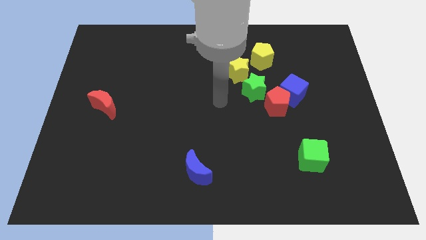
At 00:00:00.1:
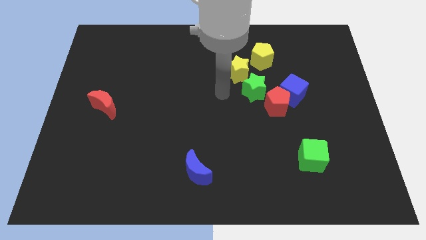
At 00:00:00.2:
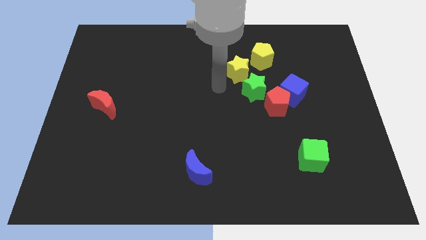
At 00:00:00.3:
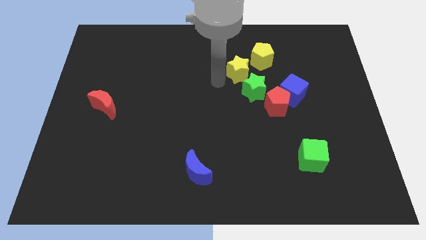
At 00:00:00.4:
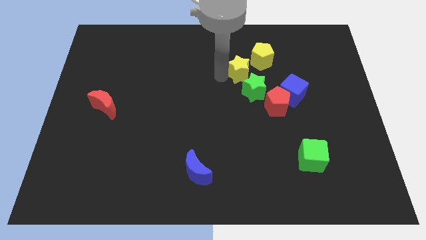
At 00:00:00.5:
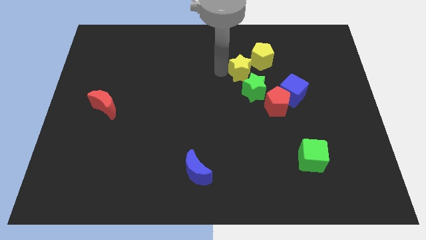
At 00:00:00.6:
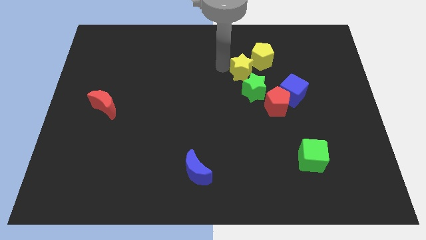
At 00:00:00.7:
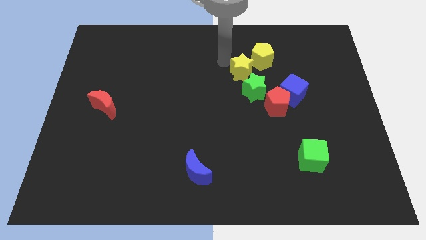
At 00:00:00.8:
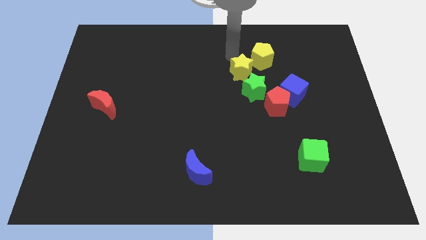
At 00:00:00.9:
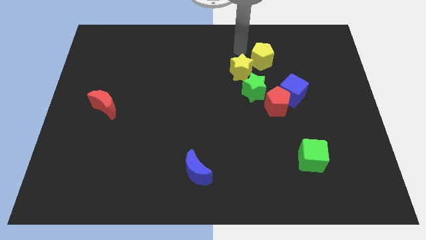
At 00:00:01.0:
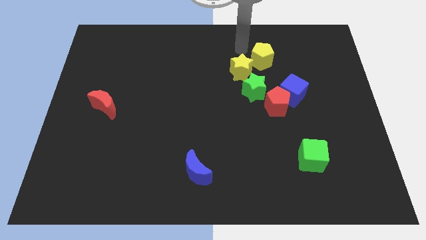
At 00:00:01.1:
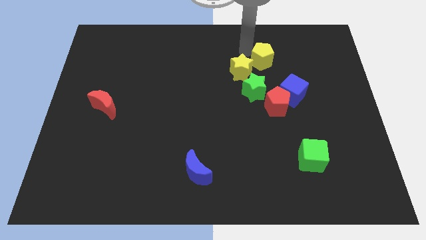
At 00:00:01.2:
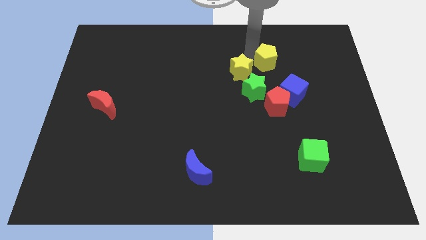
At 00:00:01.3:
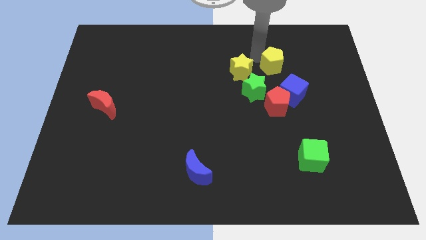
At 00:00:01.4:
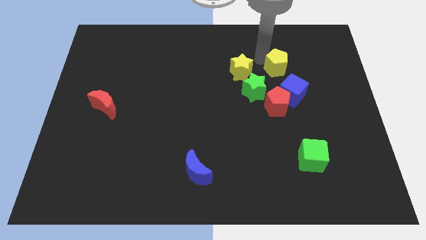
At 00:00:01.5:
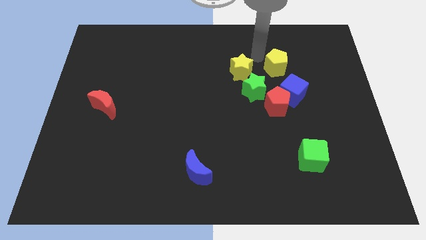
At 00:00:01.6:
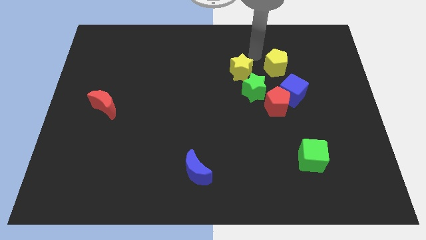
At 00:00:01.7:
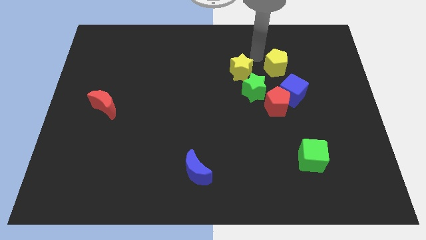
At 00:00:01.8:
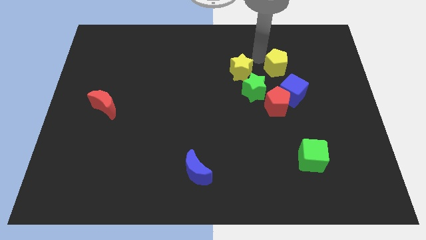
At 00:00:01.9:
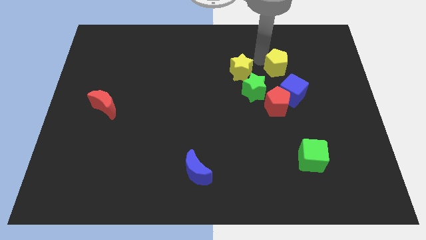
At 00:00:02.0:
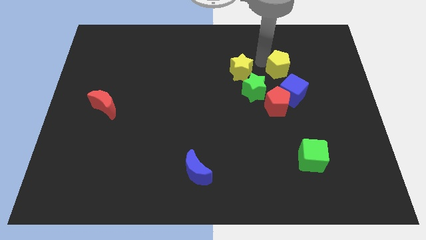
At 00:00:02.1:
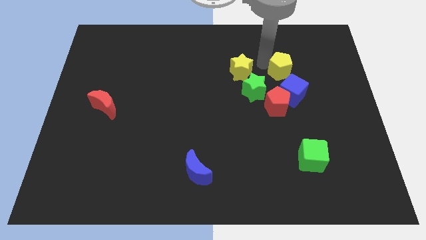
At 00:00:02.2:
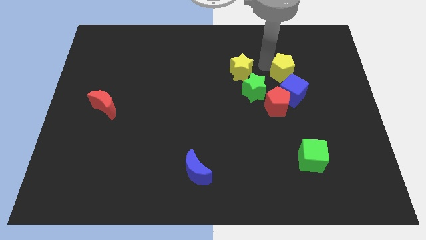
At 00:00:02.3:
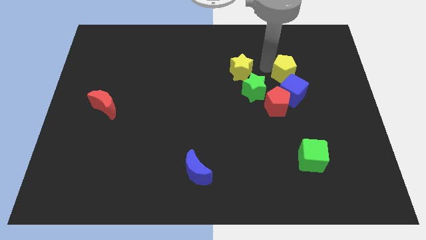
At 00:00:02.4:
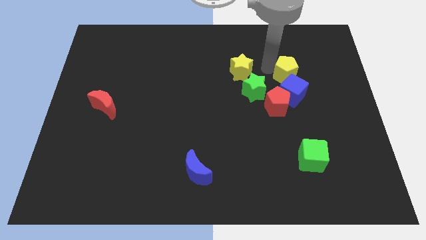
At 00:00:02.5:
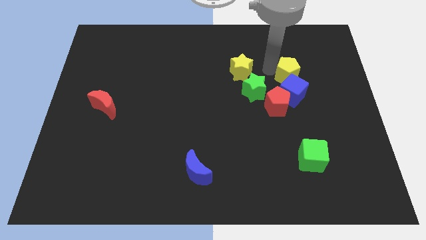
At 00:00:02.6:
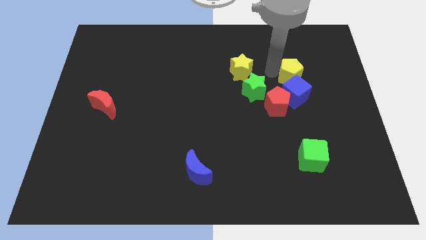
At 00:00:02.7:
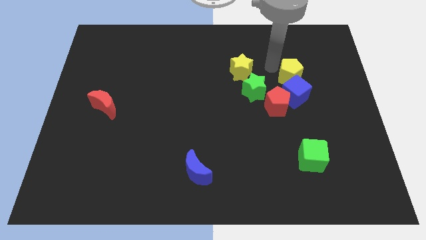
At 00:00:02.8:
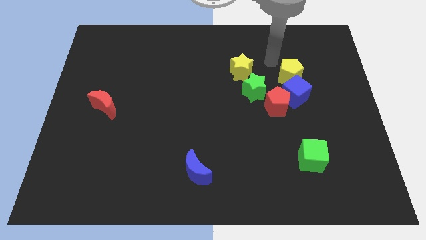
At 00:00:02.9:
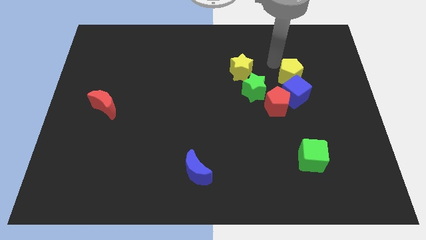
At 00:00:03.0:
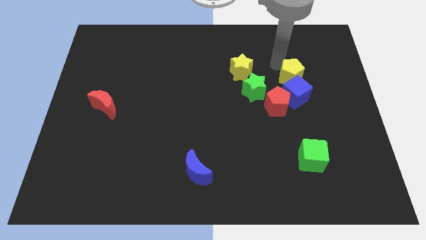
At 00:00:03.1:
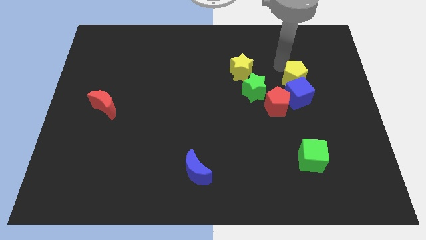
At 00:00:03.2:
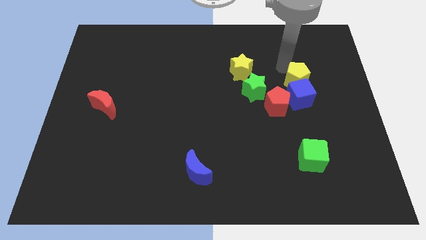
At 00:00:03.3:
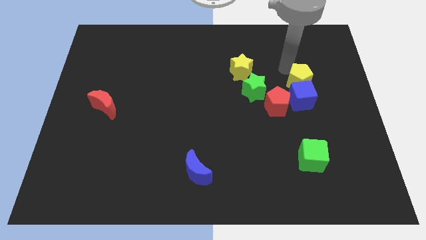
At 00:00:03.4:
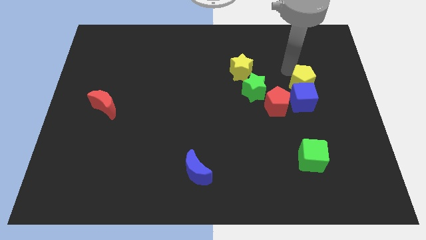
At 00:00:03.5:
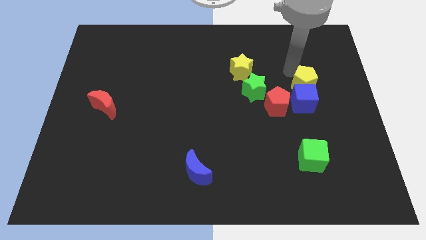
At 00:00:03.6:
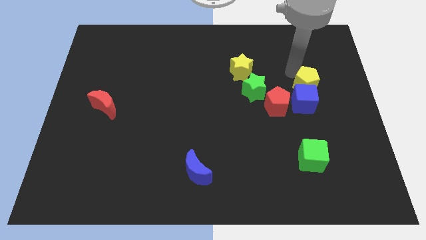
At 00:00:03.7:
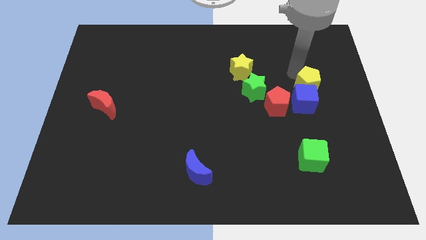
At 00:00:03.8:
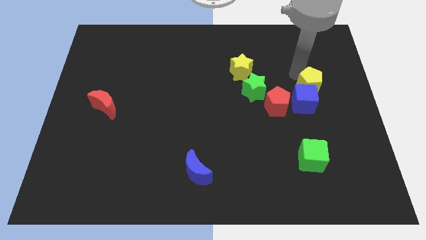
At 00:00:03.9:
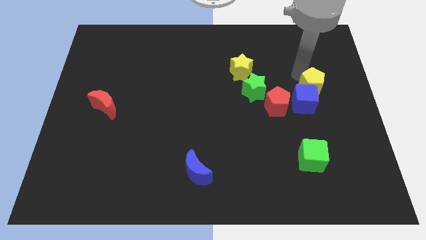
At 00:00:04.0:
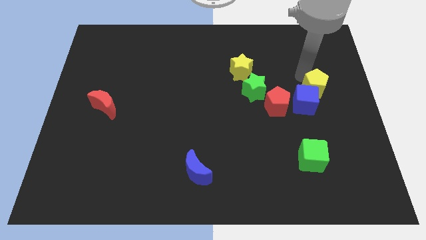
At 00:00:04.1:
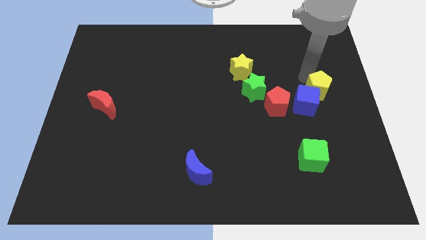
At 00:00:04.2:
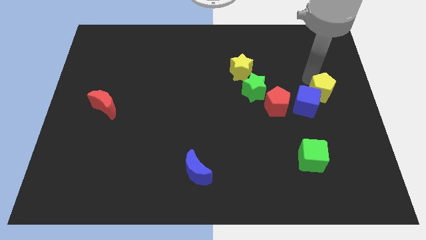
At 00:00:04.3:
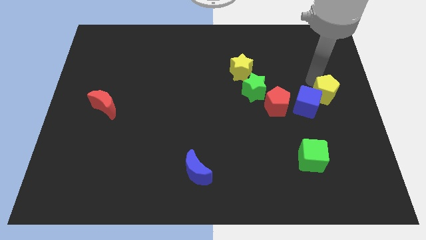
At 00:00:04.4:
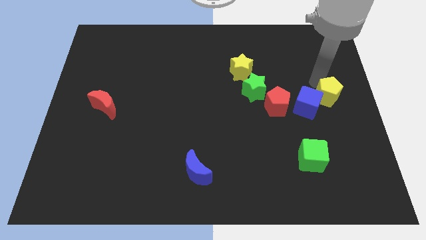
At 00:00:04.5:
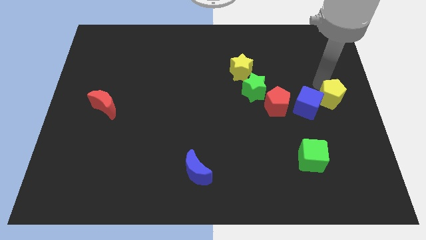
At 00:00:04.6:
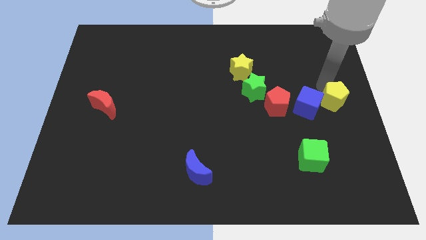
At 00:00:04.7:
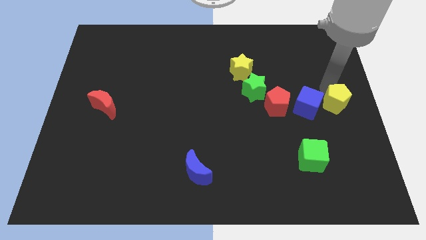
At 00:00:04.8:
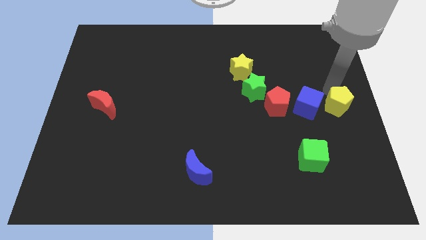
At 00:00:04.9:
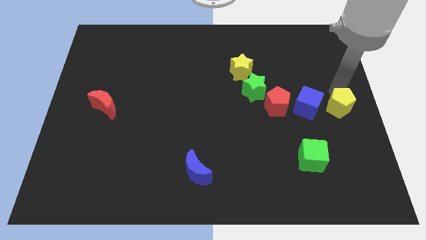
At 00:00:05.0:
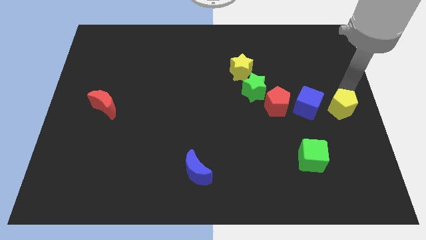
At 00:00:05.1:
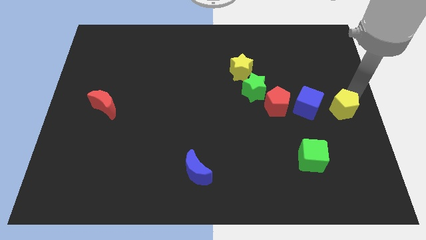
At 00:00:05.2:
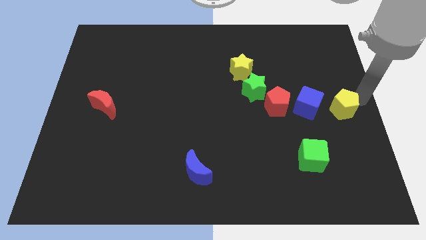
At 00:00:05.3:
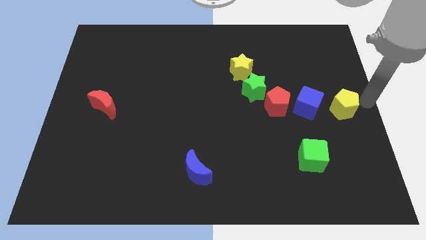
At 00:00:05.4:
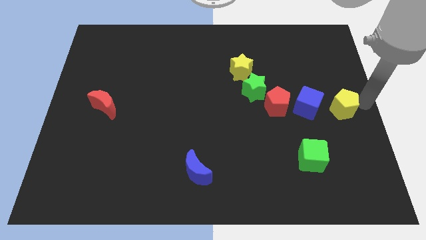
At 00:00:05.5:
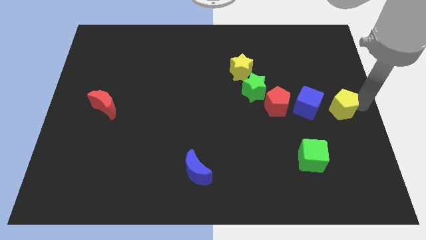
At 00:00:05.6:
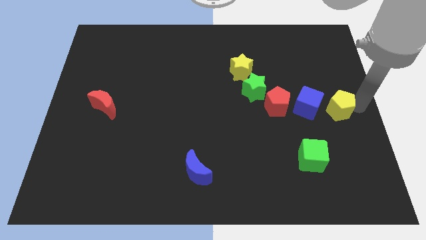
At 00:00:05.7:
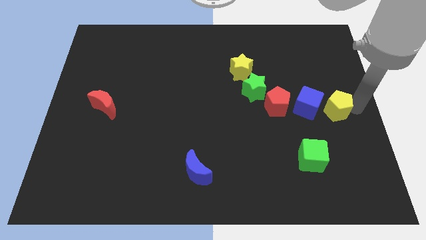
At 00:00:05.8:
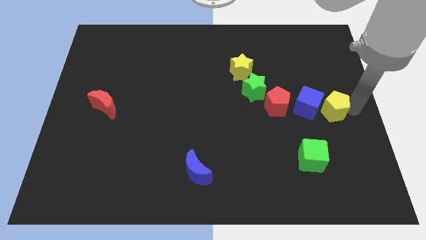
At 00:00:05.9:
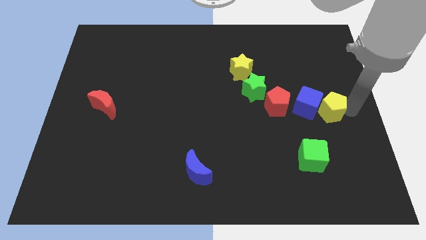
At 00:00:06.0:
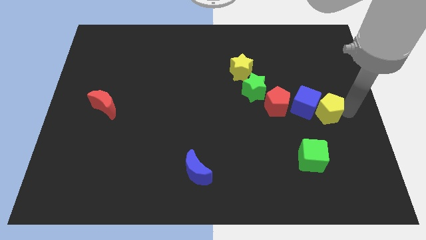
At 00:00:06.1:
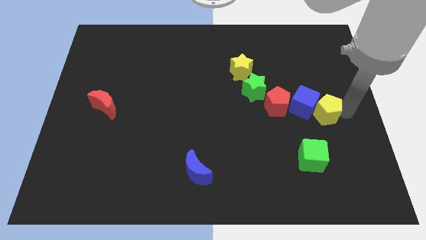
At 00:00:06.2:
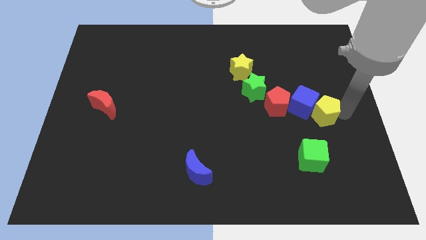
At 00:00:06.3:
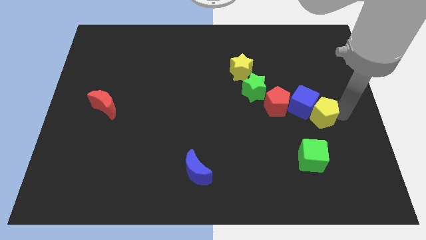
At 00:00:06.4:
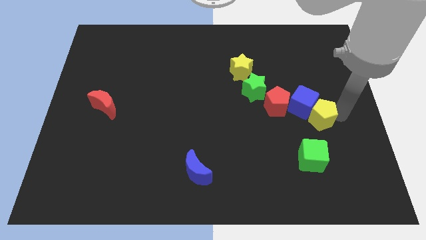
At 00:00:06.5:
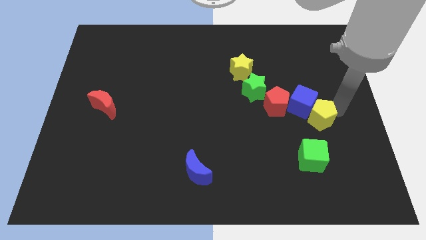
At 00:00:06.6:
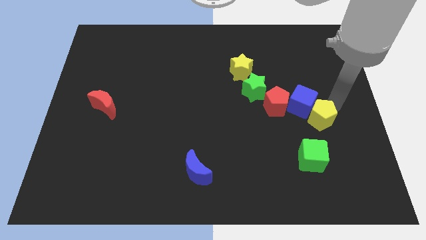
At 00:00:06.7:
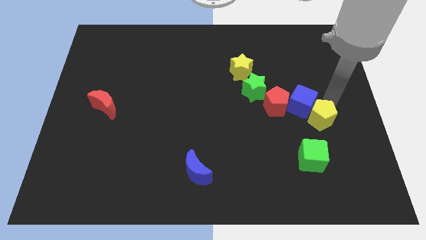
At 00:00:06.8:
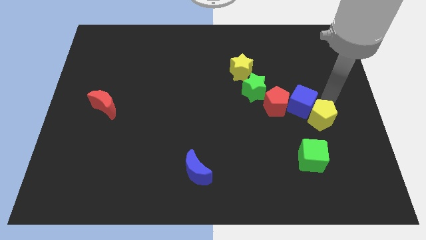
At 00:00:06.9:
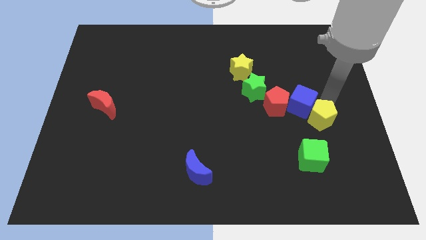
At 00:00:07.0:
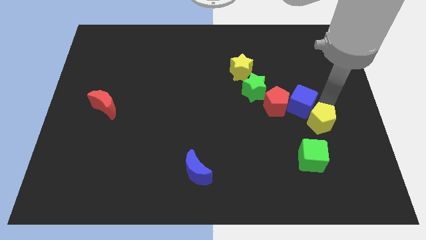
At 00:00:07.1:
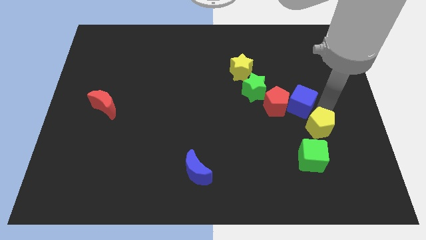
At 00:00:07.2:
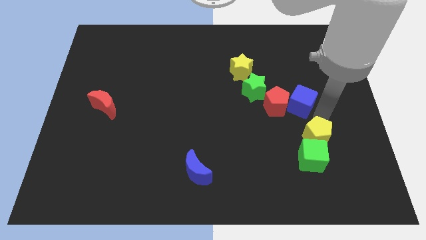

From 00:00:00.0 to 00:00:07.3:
push the yellow pentagon next to the green cube

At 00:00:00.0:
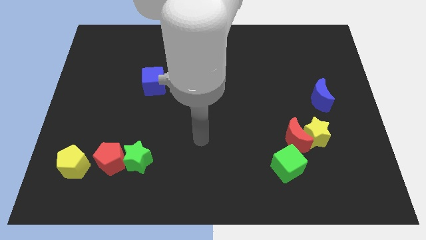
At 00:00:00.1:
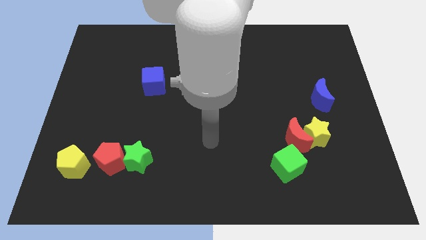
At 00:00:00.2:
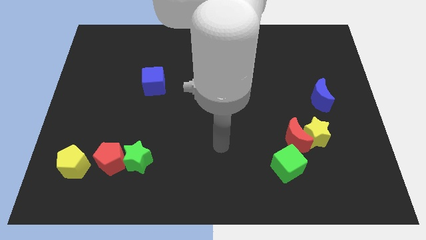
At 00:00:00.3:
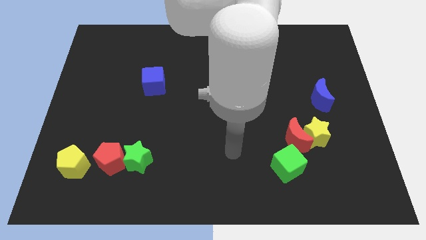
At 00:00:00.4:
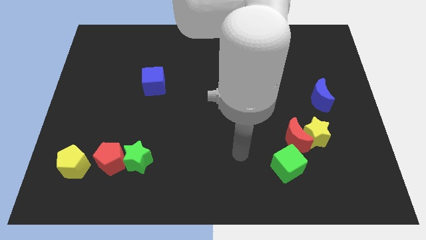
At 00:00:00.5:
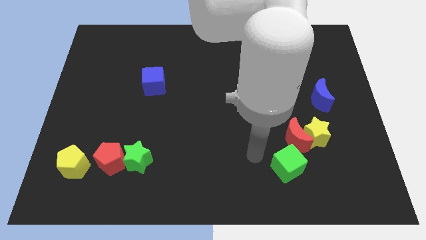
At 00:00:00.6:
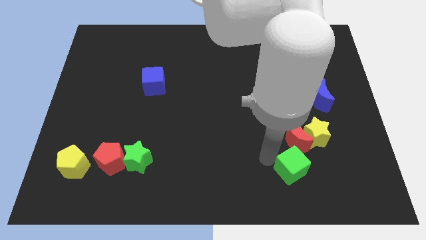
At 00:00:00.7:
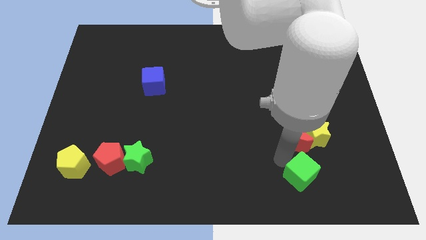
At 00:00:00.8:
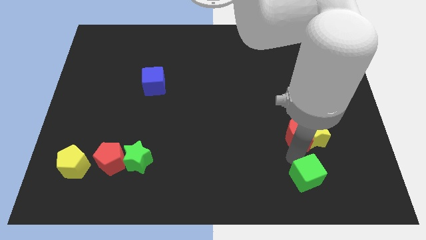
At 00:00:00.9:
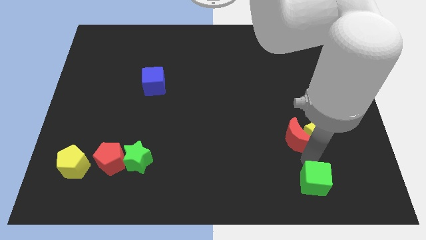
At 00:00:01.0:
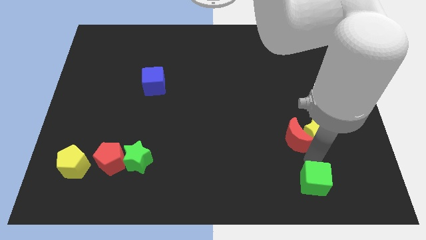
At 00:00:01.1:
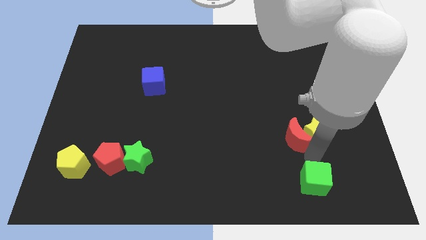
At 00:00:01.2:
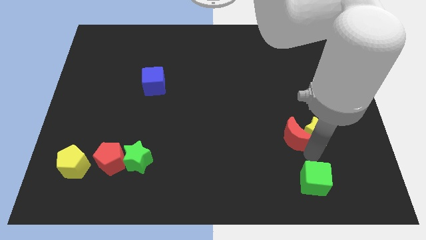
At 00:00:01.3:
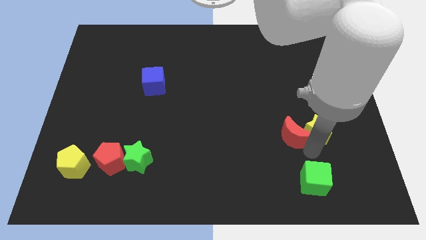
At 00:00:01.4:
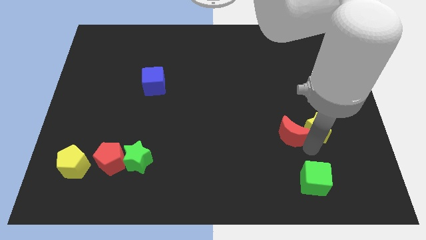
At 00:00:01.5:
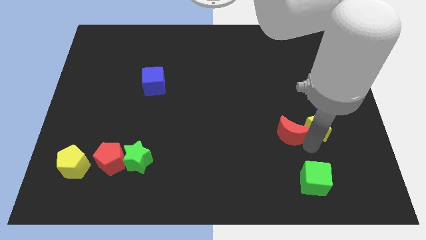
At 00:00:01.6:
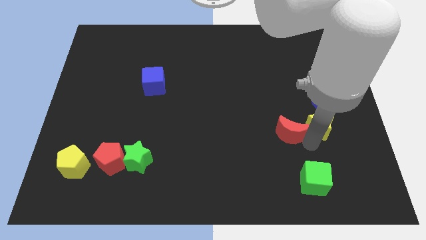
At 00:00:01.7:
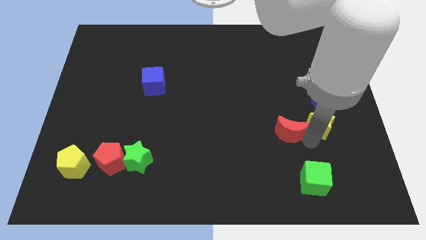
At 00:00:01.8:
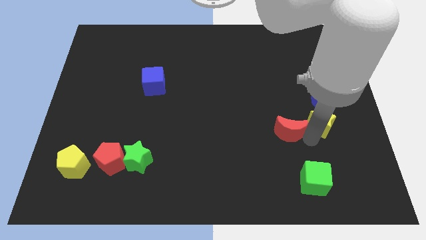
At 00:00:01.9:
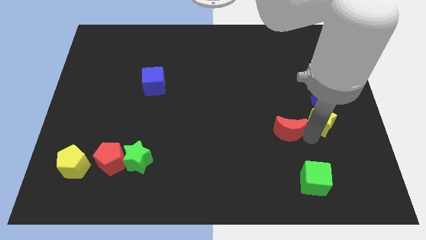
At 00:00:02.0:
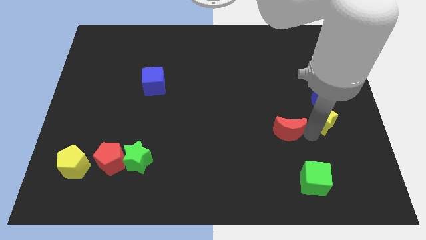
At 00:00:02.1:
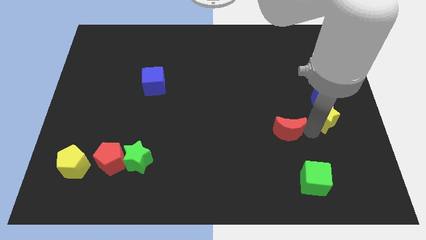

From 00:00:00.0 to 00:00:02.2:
slide the yellow star close to the blue moon
